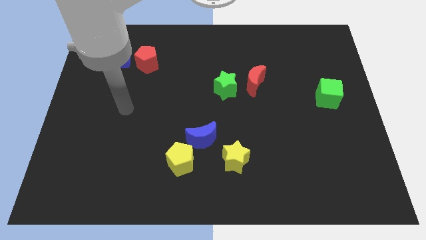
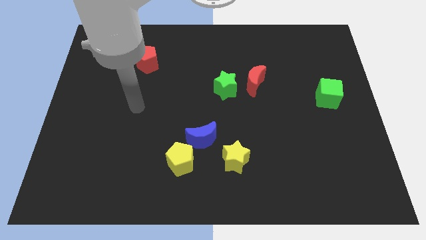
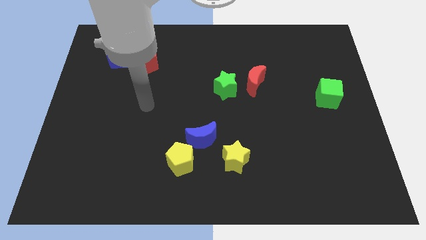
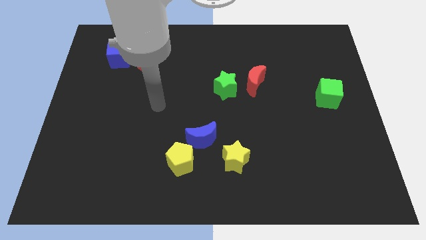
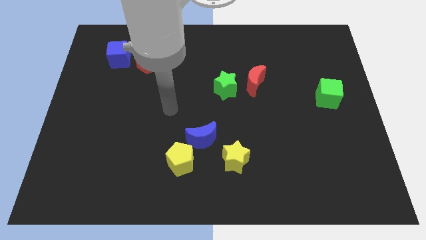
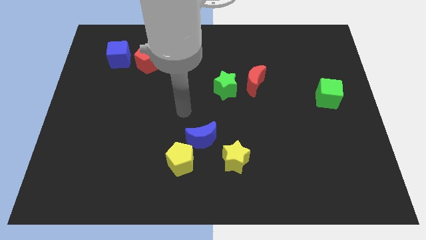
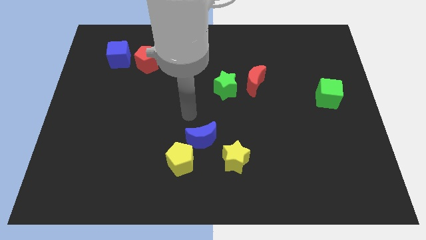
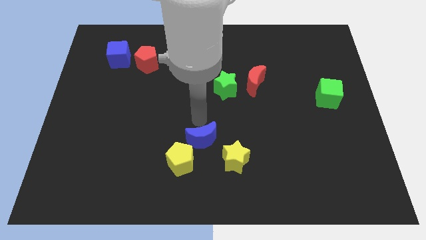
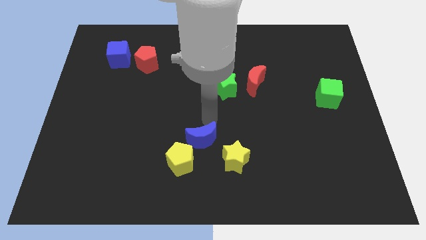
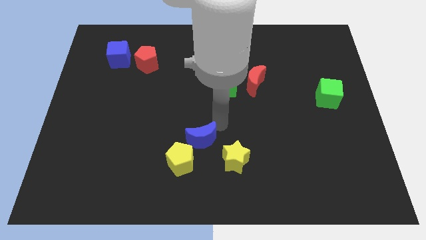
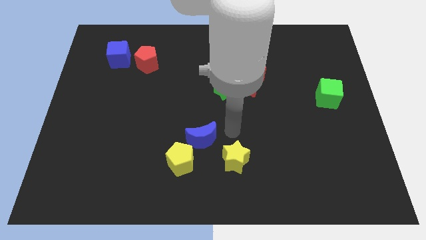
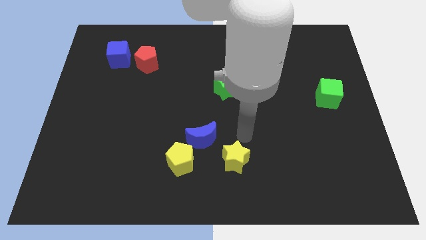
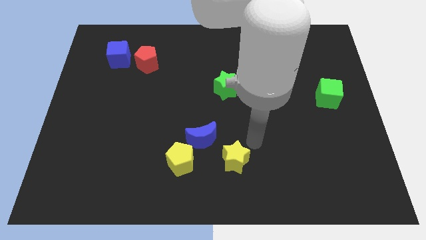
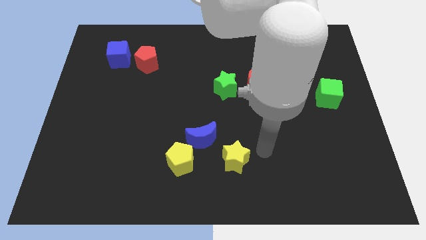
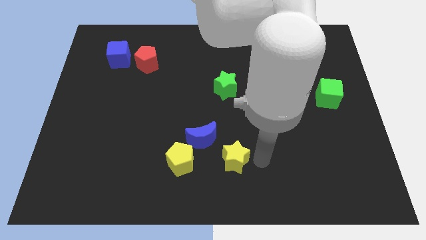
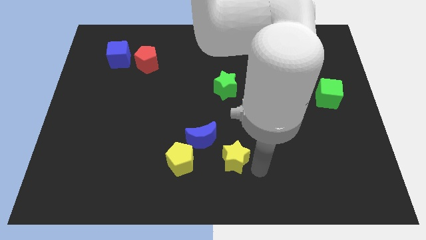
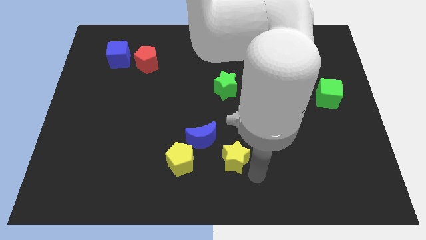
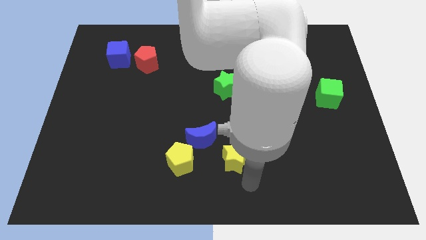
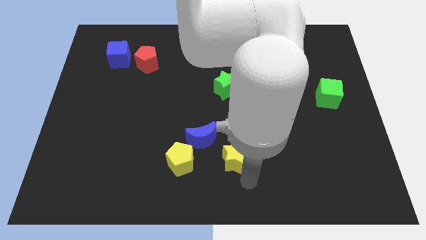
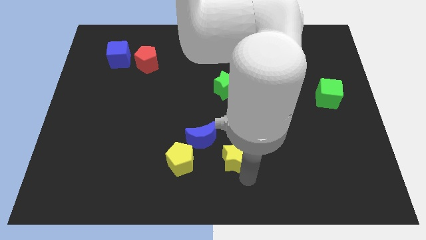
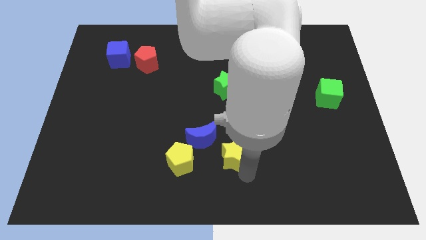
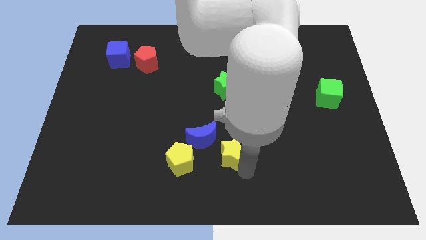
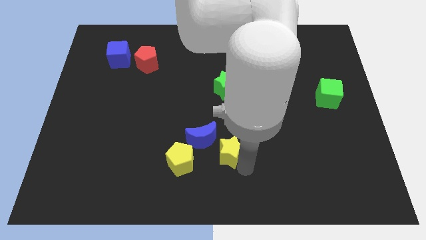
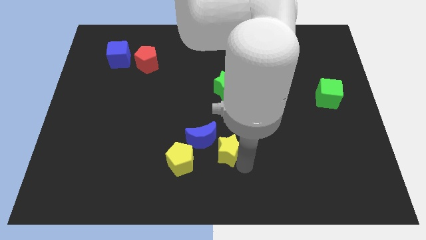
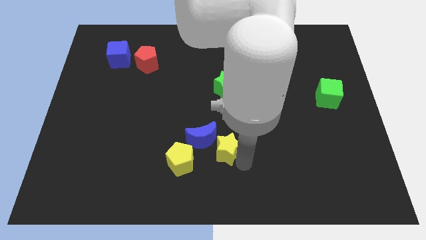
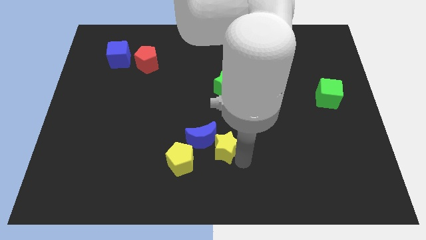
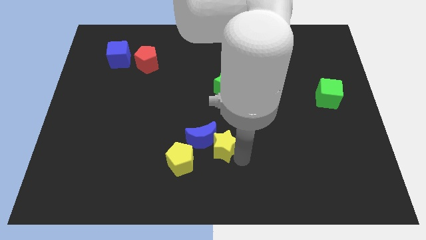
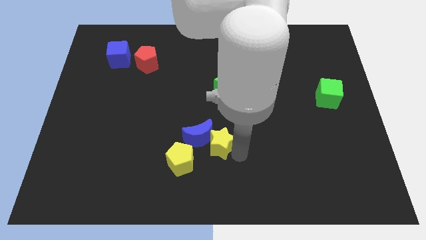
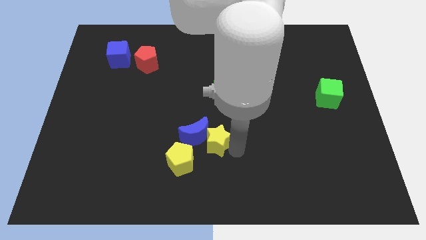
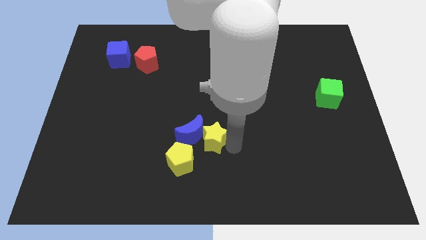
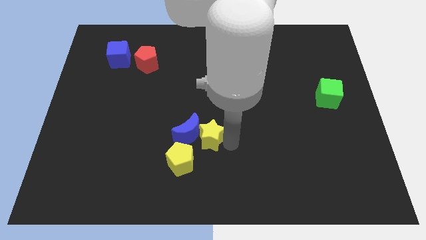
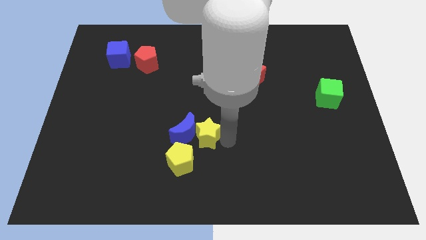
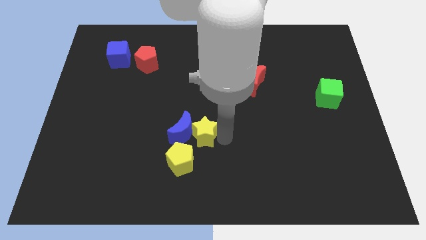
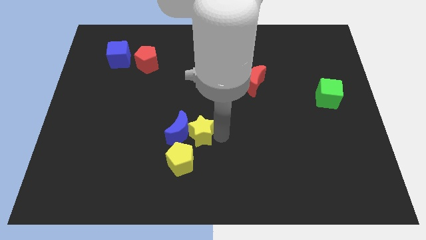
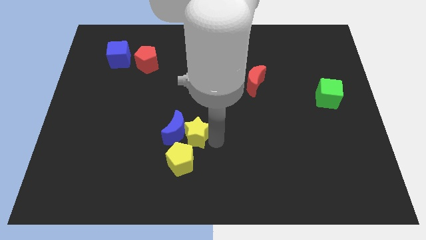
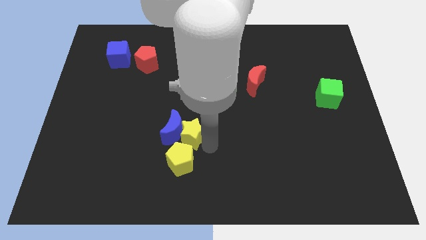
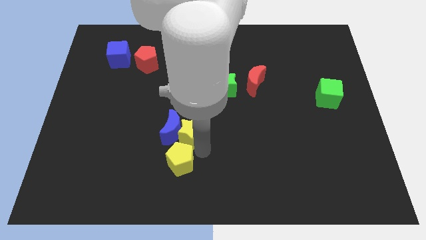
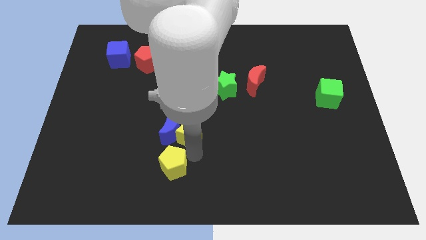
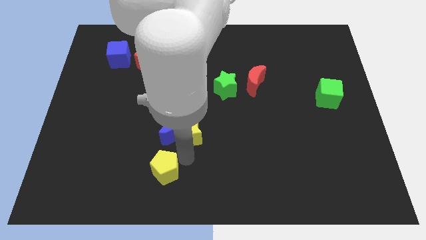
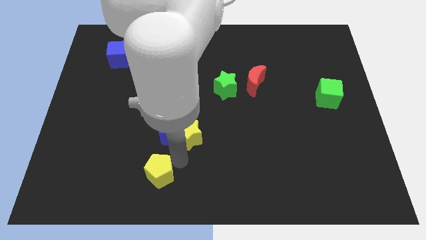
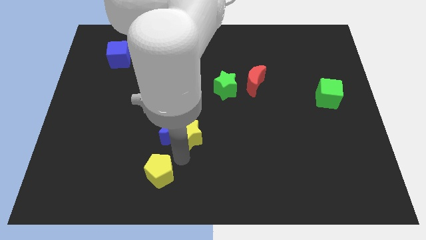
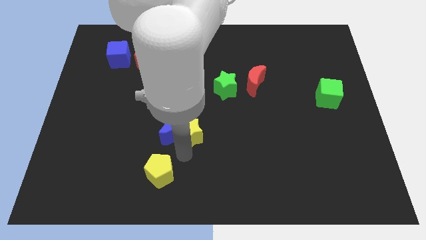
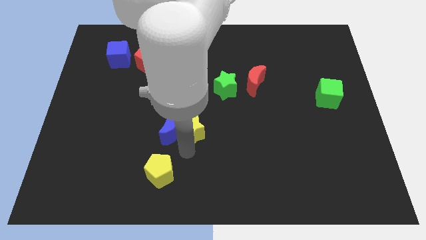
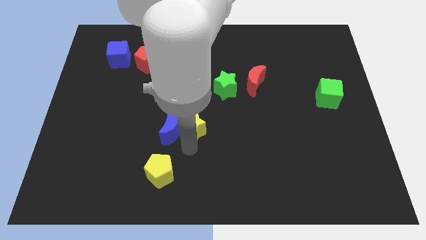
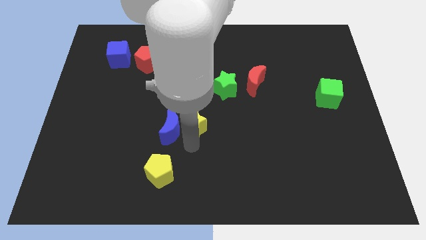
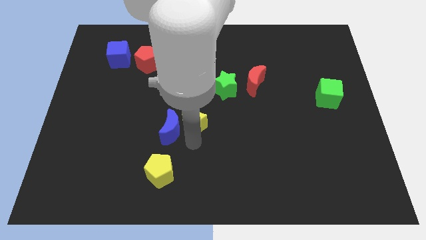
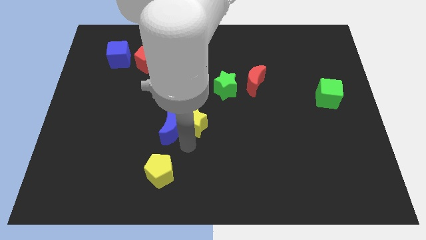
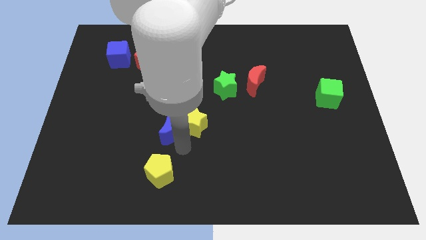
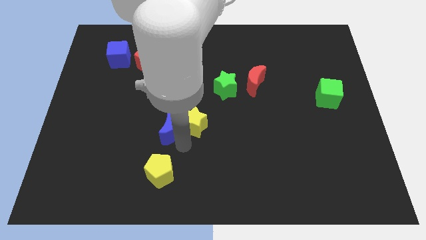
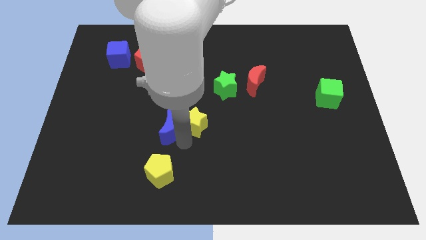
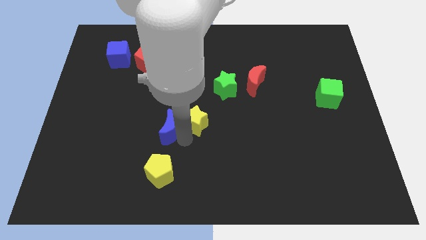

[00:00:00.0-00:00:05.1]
push the yellow star to the bottom left side of the green star

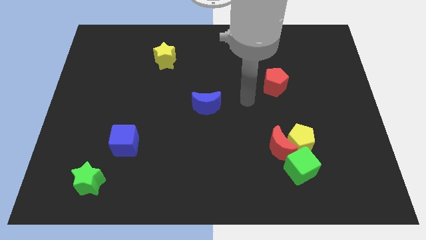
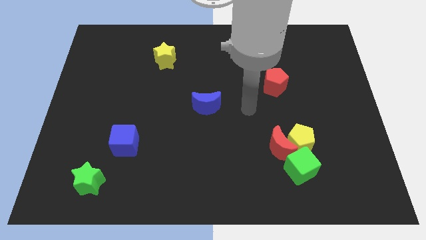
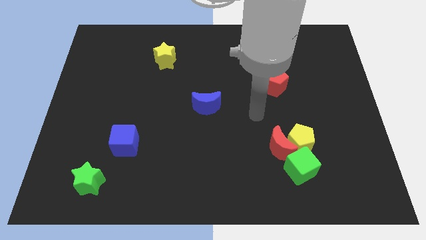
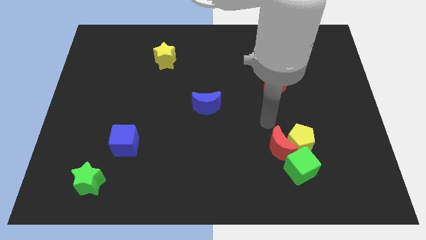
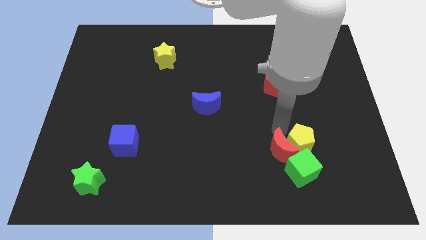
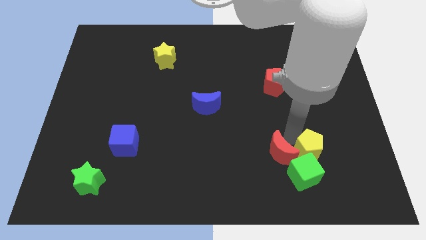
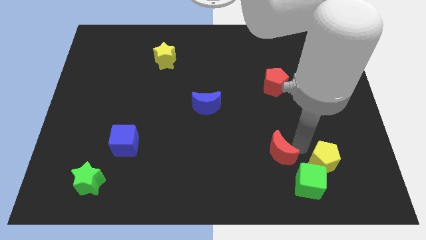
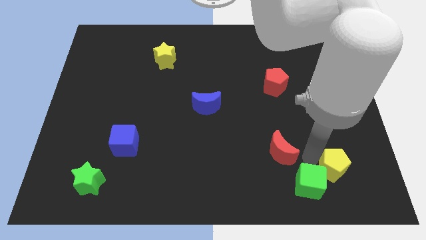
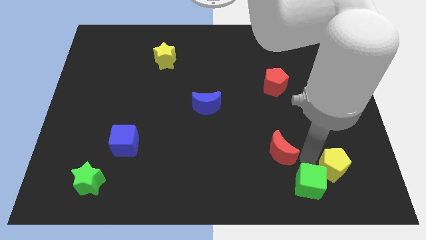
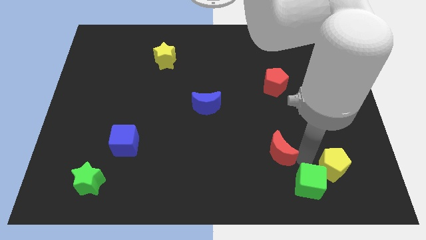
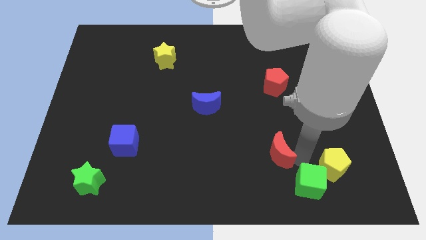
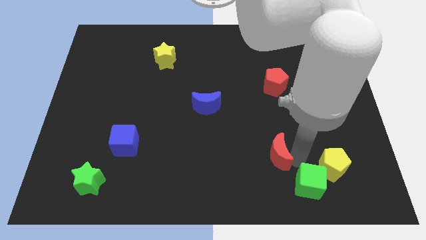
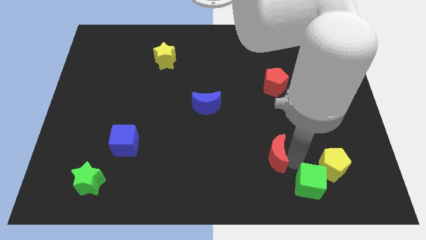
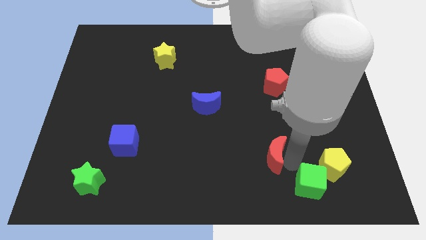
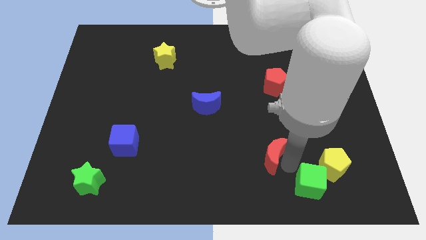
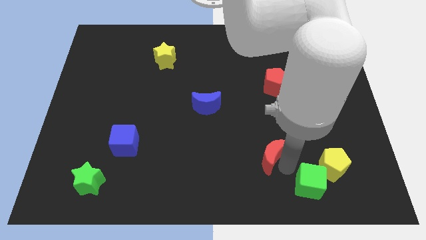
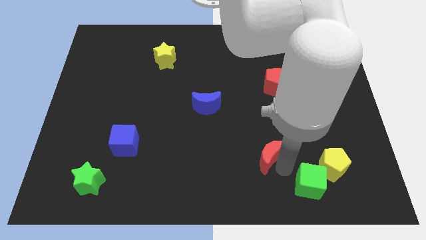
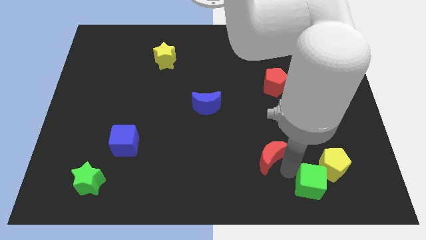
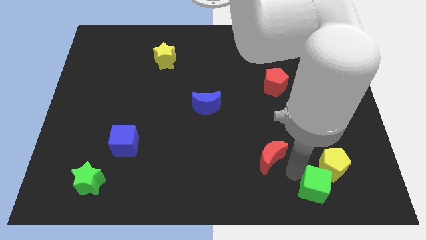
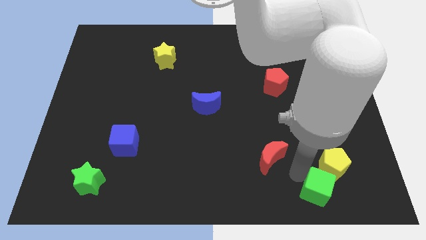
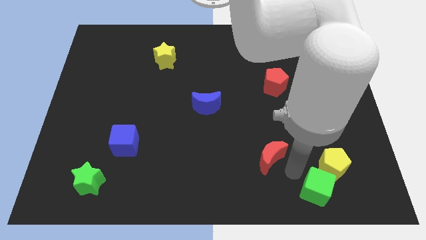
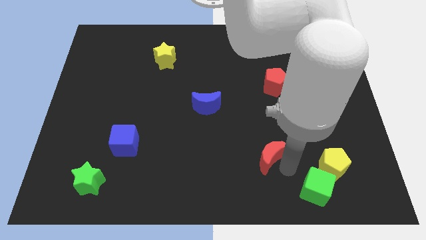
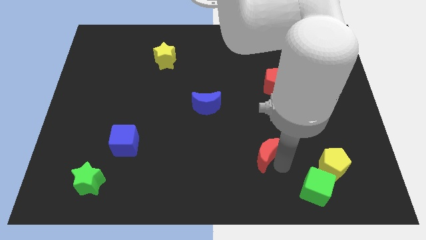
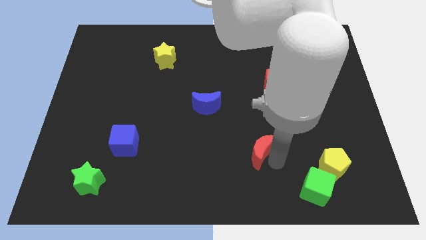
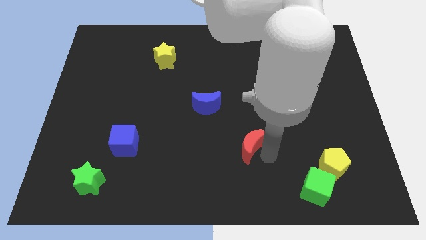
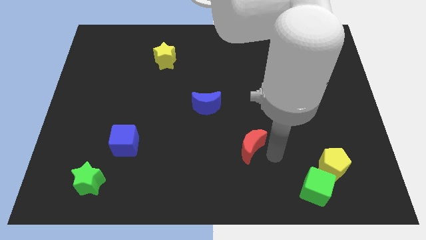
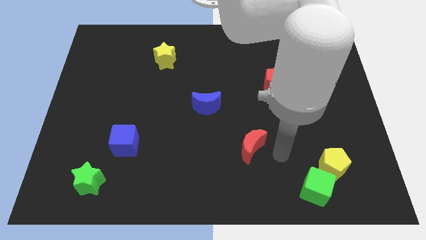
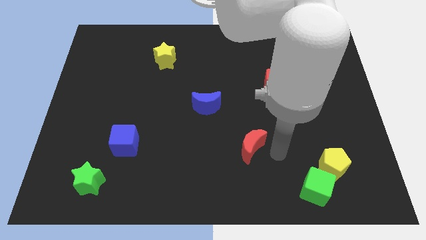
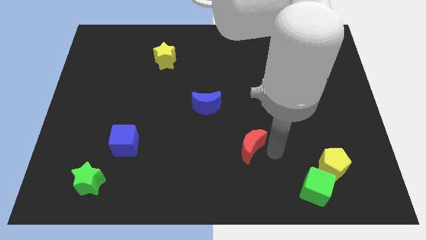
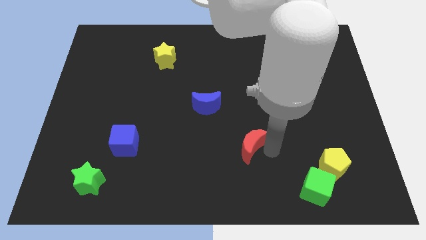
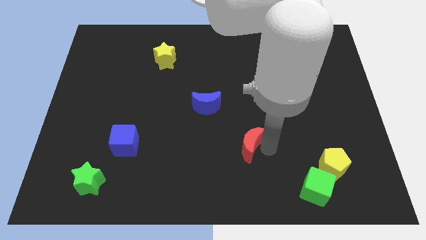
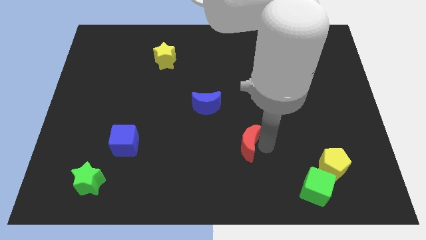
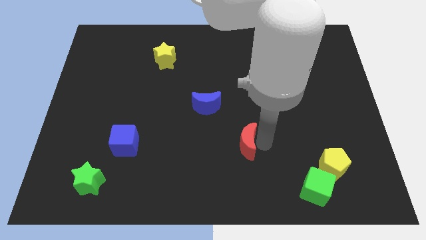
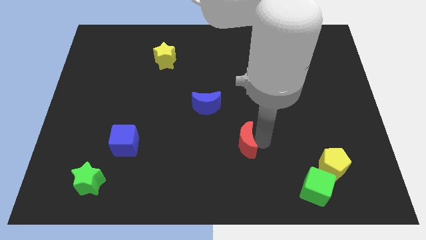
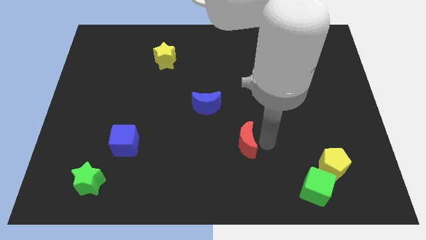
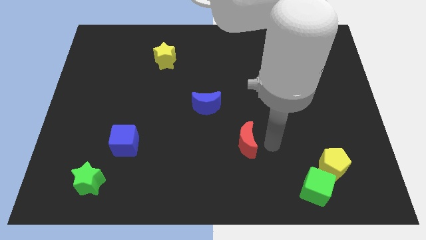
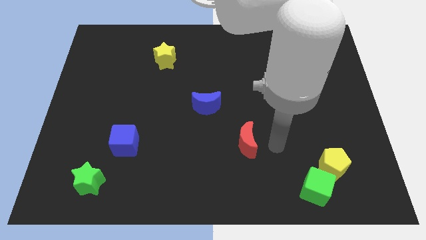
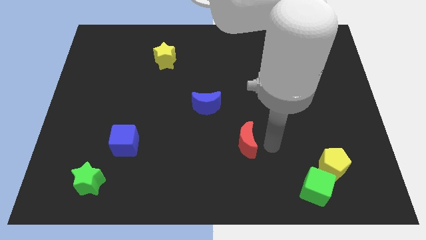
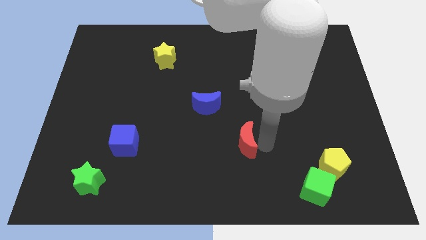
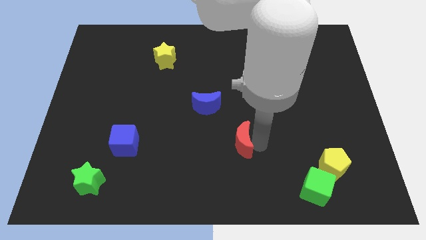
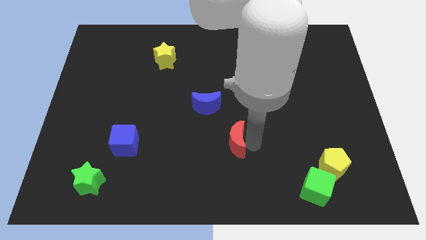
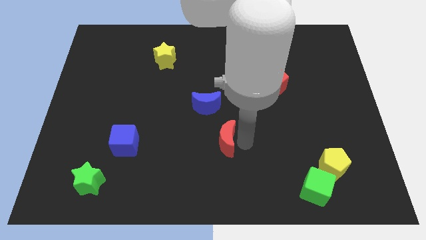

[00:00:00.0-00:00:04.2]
push the red moon to the bottom side of the blue moon
